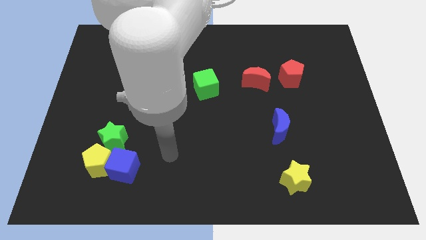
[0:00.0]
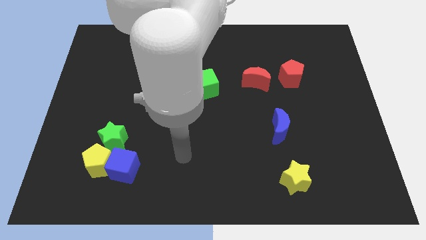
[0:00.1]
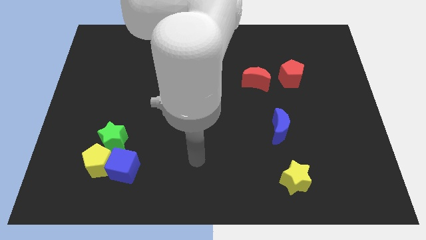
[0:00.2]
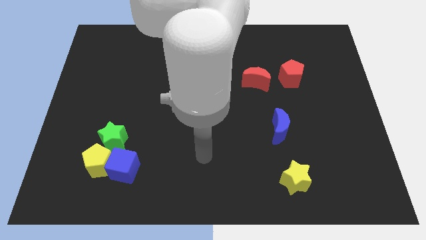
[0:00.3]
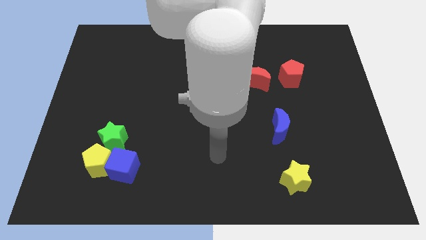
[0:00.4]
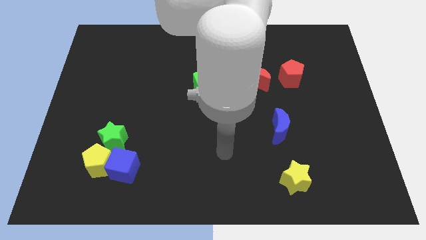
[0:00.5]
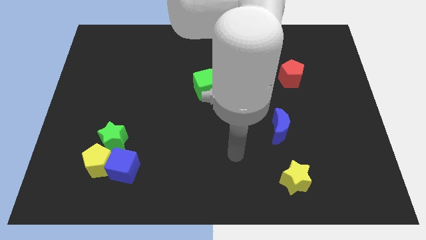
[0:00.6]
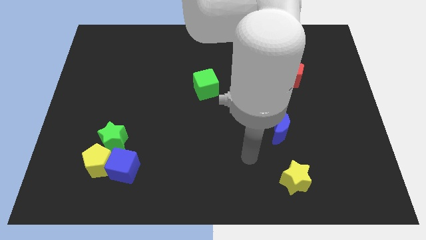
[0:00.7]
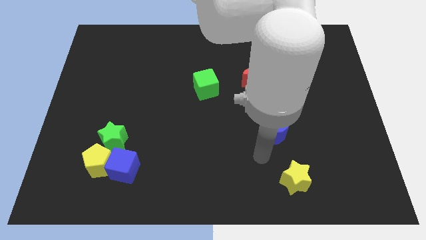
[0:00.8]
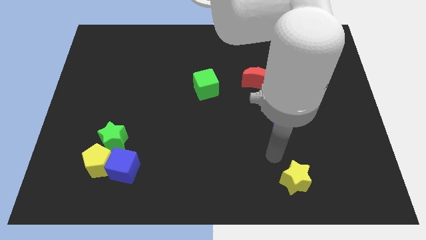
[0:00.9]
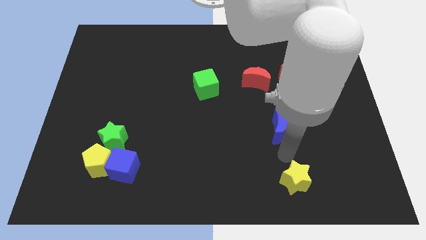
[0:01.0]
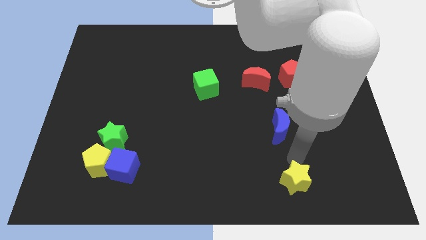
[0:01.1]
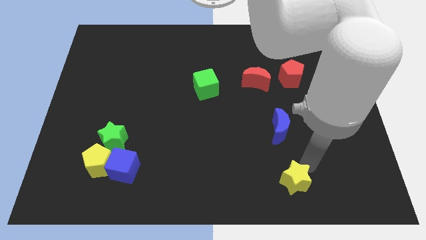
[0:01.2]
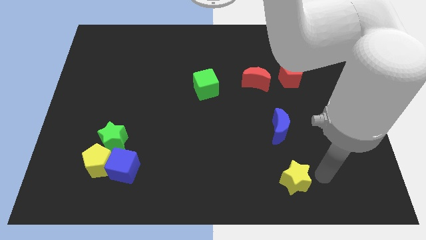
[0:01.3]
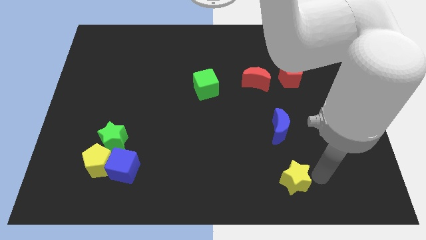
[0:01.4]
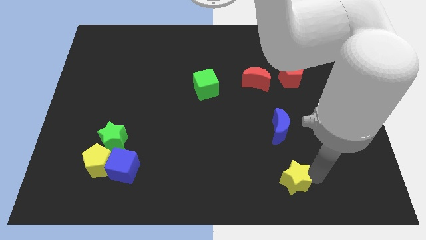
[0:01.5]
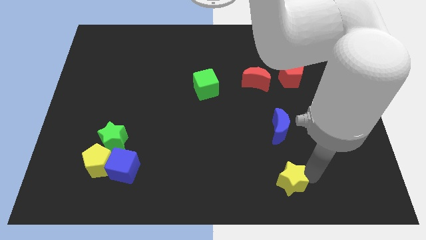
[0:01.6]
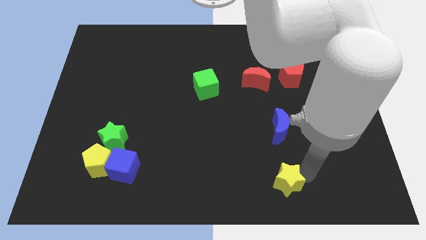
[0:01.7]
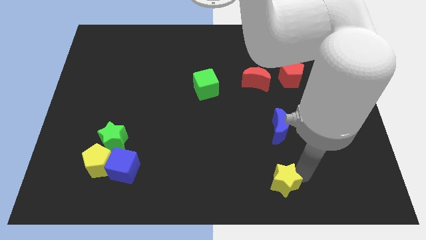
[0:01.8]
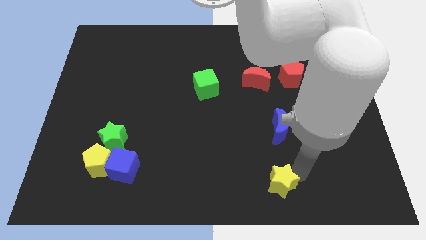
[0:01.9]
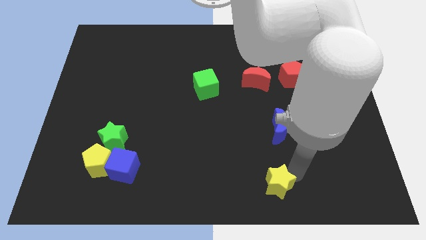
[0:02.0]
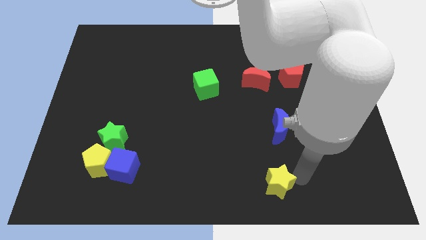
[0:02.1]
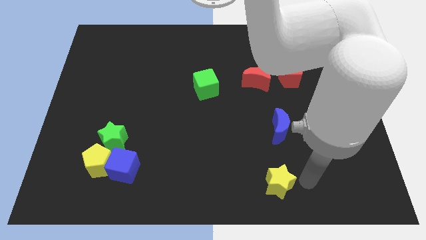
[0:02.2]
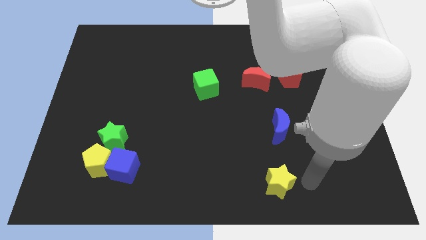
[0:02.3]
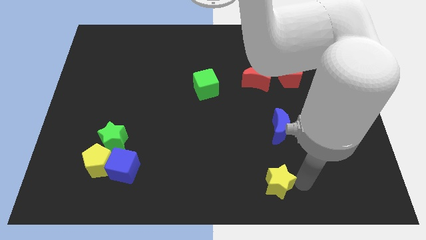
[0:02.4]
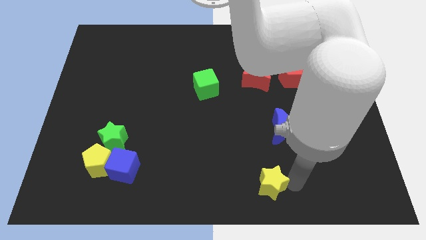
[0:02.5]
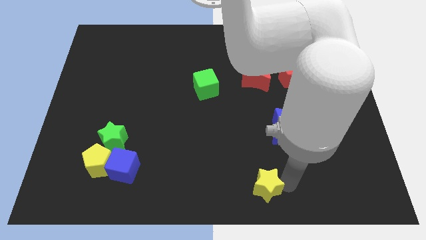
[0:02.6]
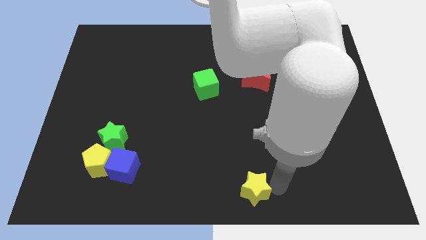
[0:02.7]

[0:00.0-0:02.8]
slide the yellow star somewhat to the left

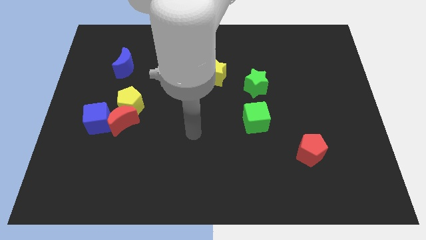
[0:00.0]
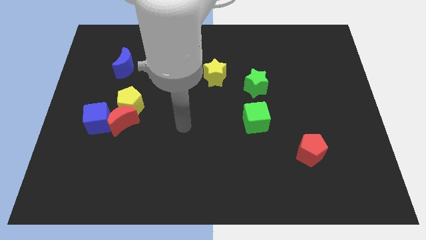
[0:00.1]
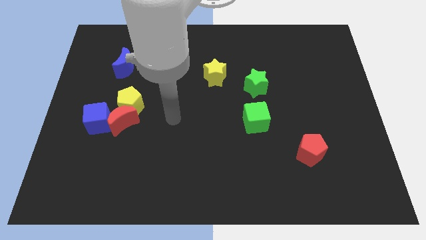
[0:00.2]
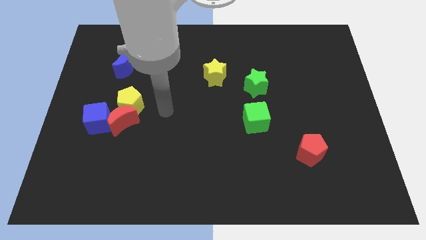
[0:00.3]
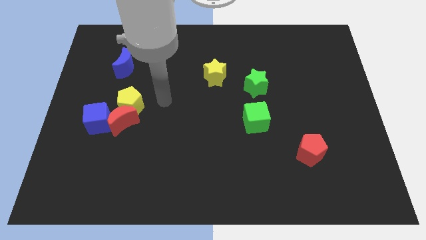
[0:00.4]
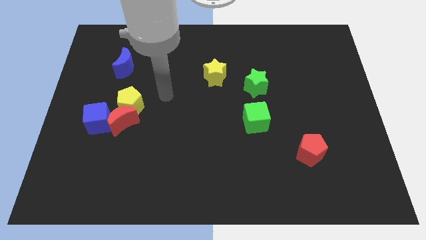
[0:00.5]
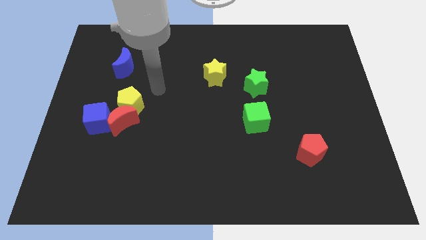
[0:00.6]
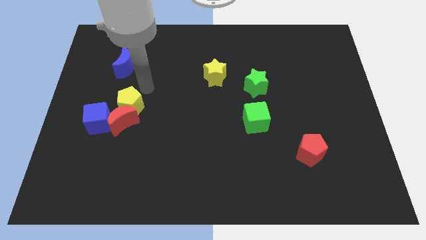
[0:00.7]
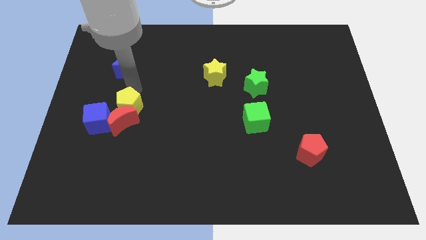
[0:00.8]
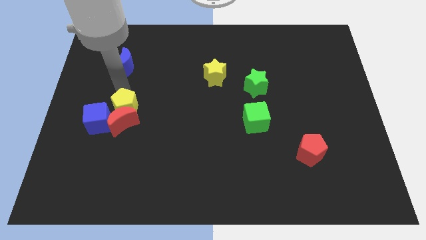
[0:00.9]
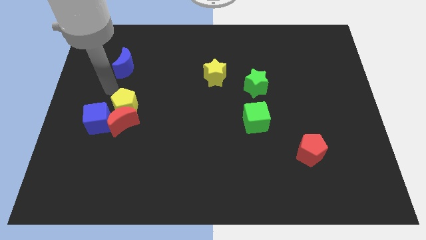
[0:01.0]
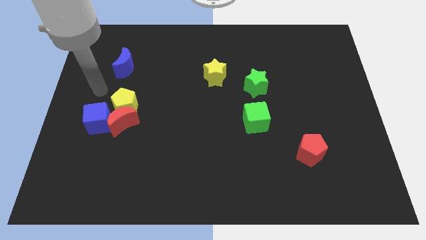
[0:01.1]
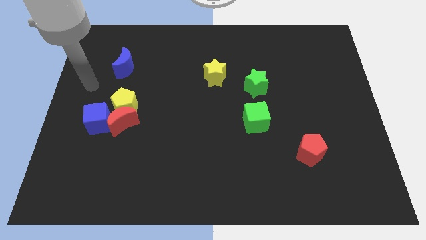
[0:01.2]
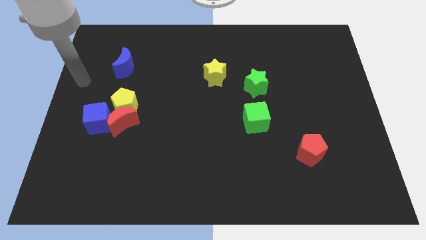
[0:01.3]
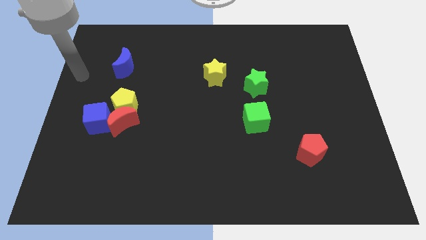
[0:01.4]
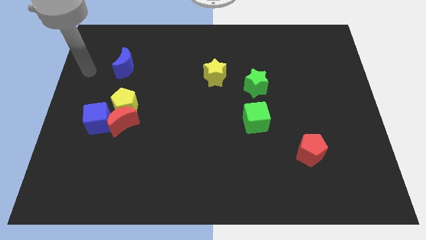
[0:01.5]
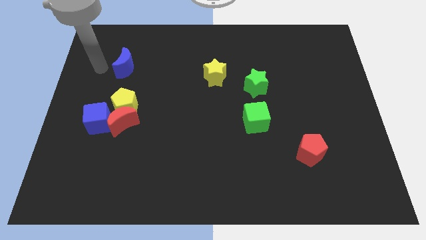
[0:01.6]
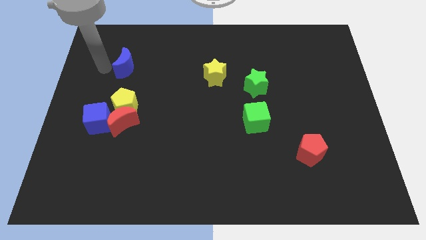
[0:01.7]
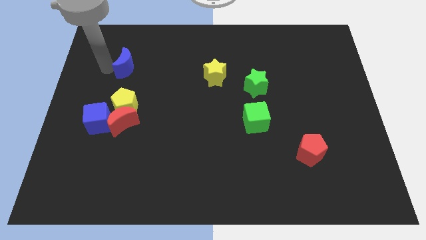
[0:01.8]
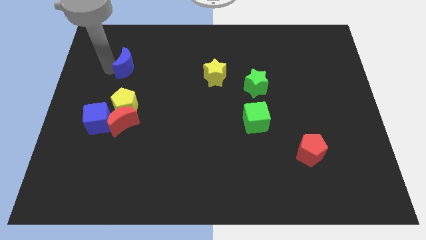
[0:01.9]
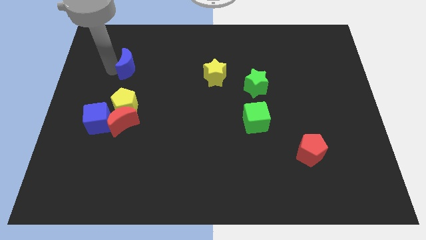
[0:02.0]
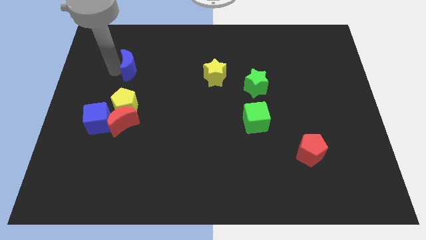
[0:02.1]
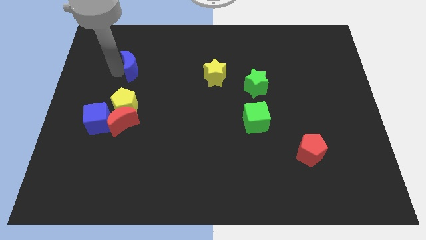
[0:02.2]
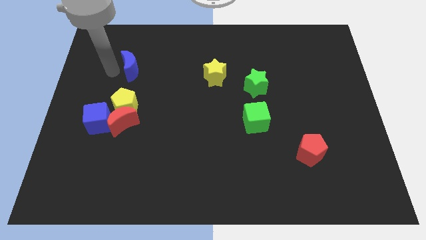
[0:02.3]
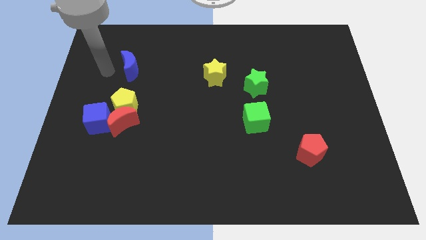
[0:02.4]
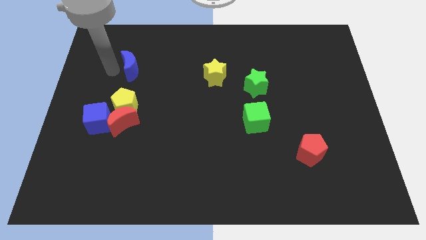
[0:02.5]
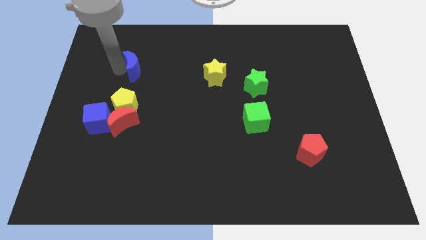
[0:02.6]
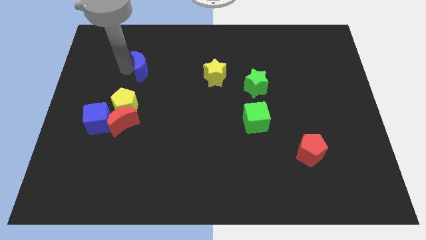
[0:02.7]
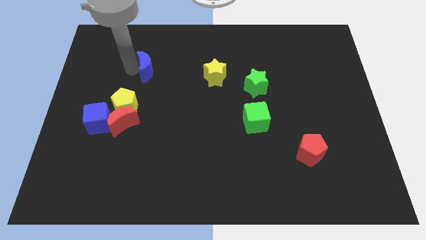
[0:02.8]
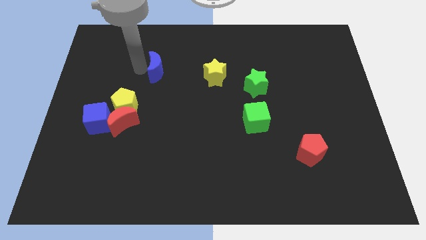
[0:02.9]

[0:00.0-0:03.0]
slightly move the blue moon right

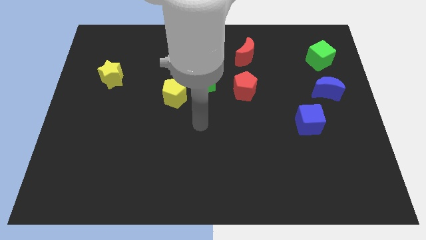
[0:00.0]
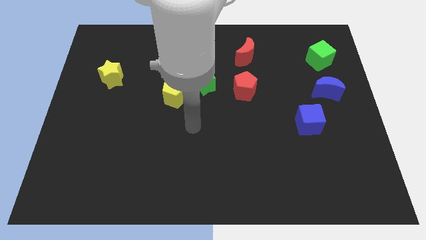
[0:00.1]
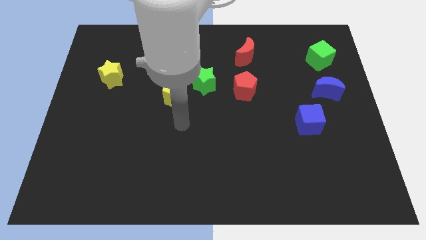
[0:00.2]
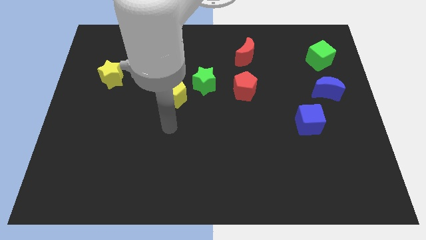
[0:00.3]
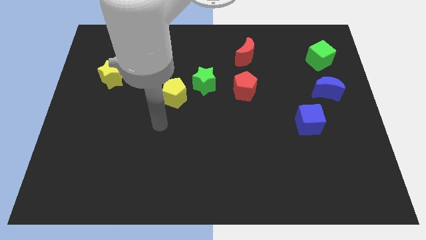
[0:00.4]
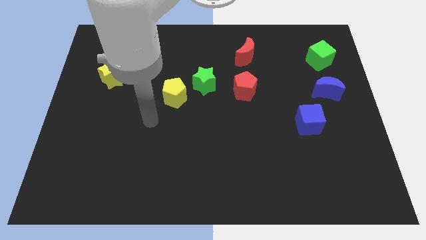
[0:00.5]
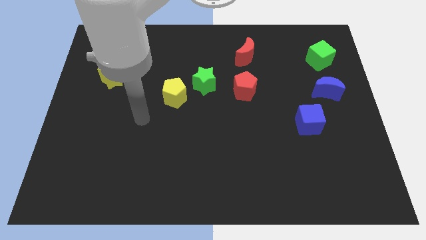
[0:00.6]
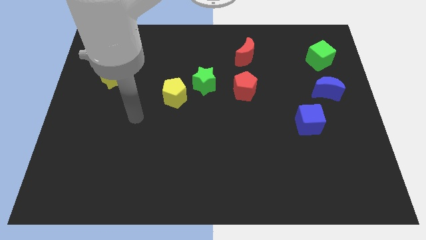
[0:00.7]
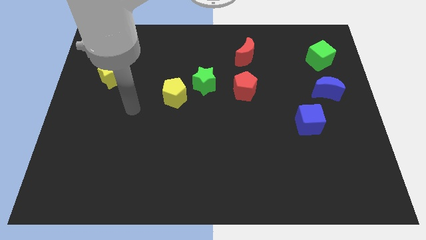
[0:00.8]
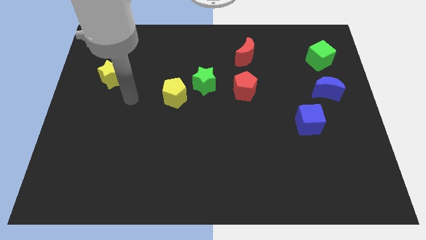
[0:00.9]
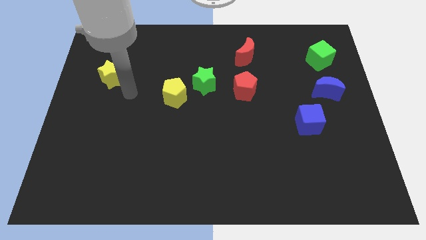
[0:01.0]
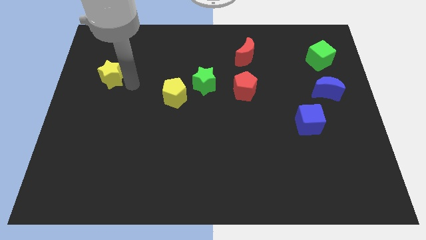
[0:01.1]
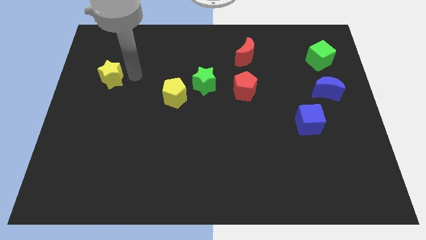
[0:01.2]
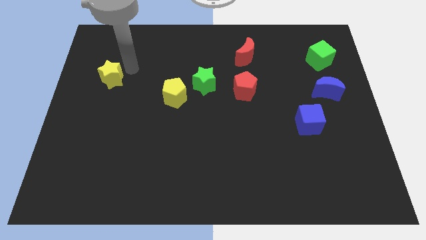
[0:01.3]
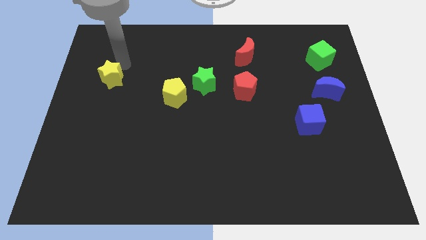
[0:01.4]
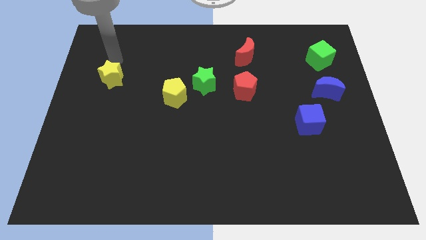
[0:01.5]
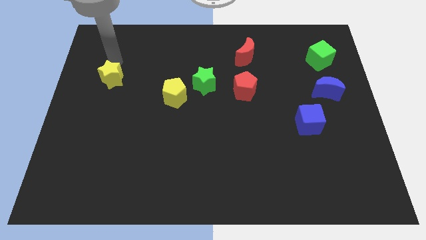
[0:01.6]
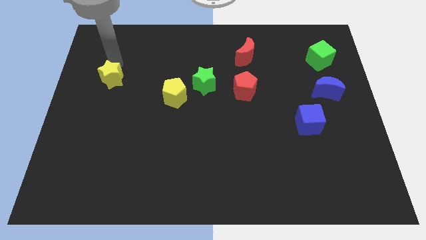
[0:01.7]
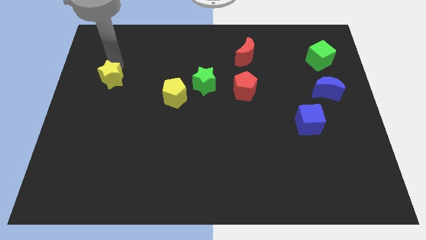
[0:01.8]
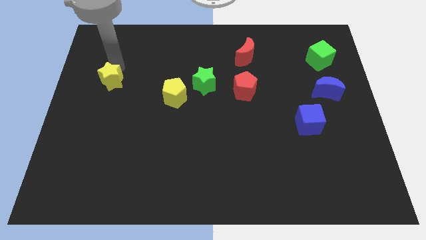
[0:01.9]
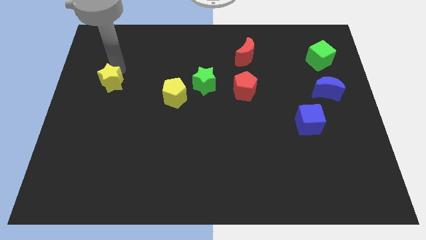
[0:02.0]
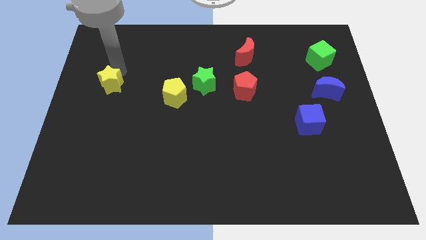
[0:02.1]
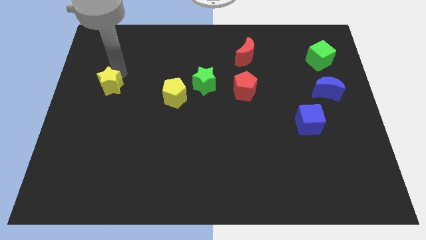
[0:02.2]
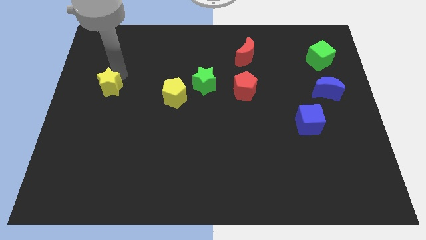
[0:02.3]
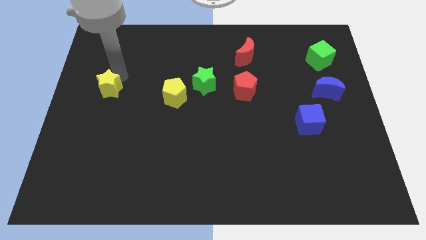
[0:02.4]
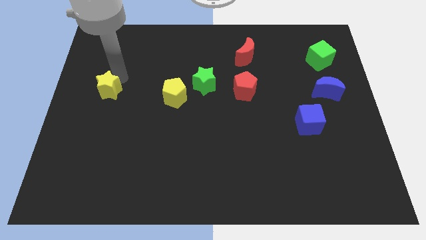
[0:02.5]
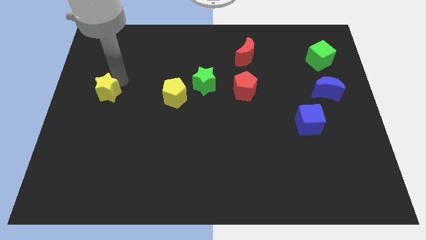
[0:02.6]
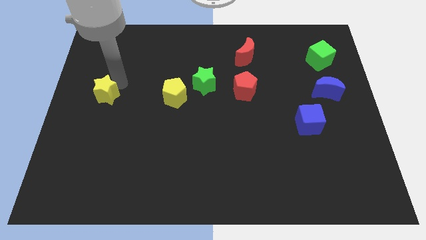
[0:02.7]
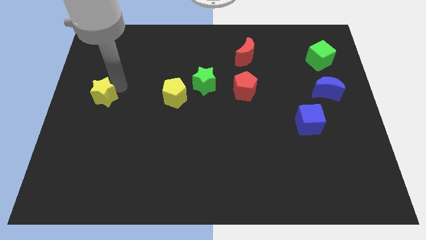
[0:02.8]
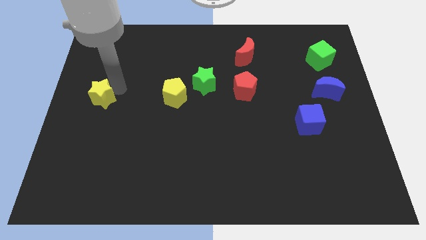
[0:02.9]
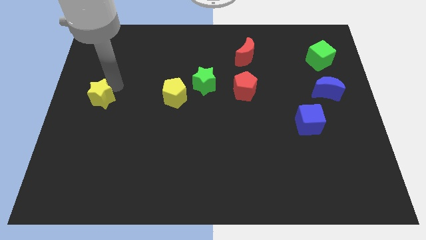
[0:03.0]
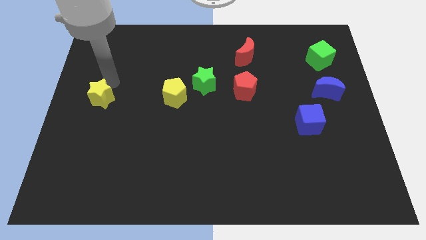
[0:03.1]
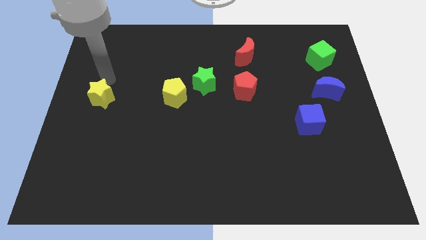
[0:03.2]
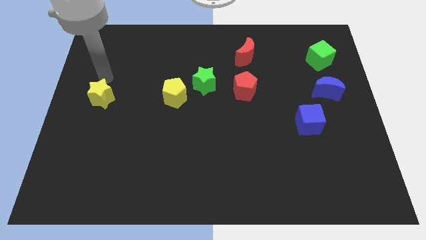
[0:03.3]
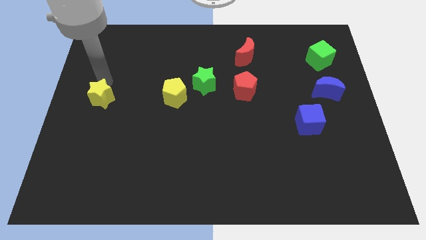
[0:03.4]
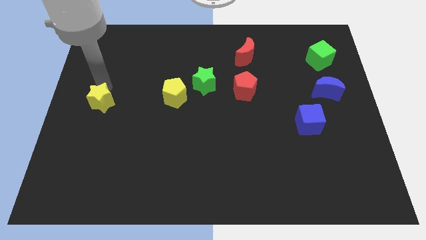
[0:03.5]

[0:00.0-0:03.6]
move the yellow star down a bit
